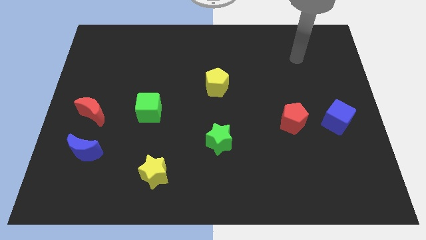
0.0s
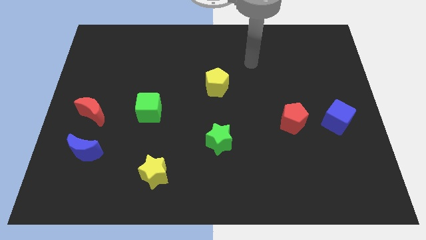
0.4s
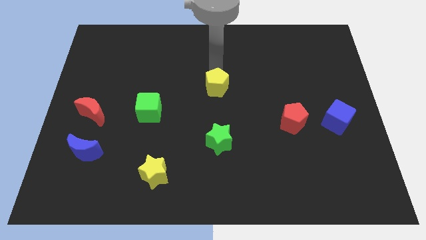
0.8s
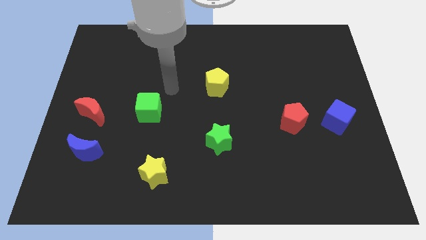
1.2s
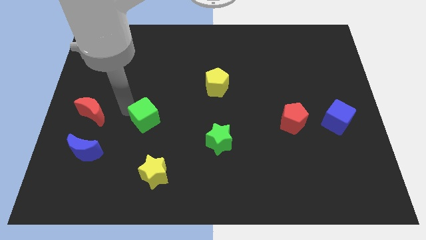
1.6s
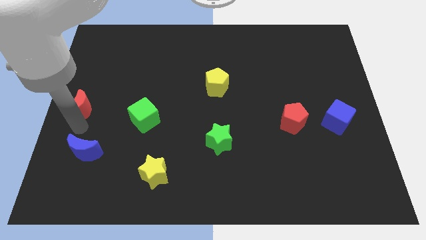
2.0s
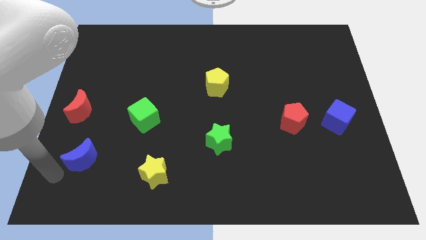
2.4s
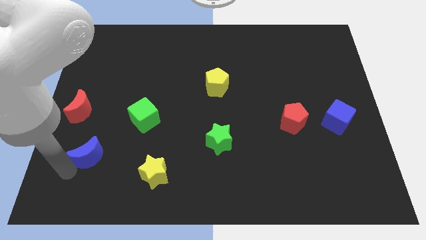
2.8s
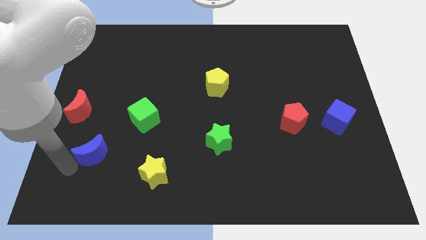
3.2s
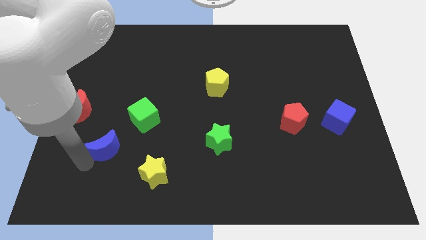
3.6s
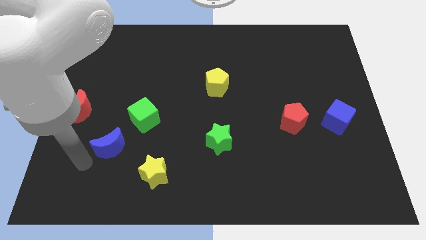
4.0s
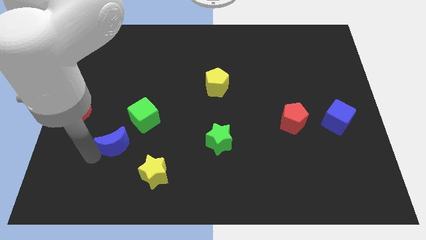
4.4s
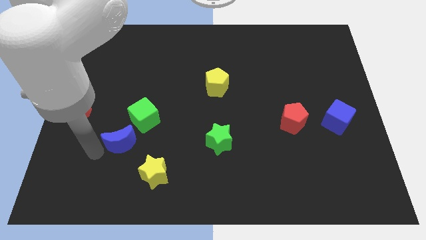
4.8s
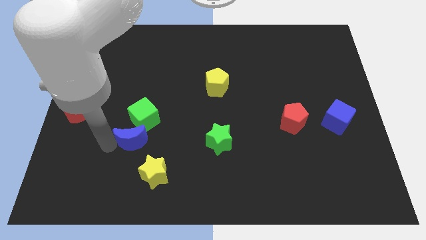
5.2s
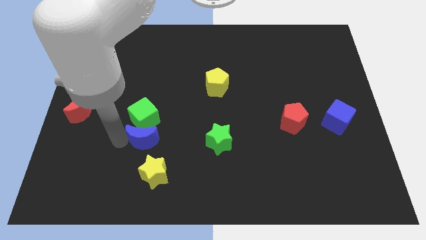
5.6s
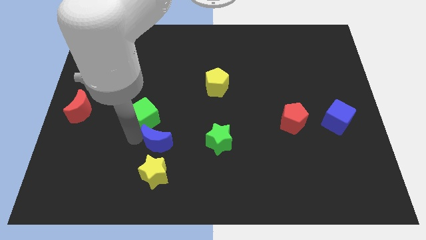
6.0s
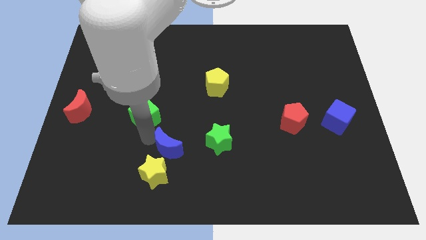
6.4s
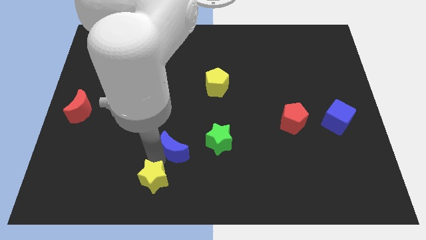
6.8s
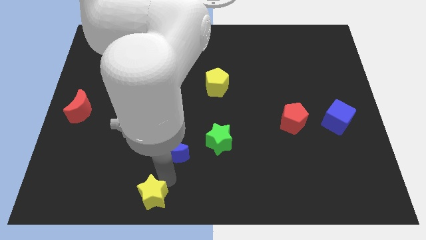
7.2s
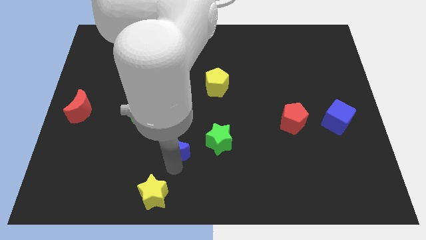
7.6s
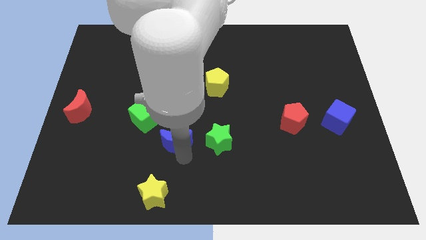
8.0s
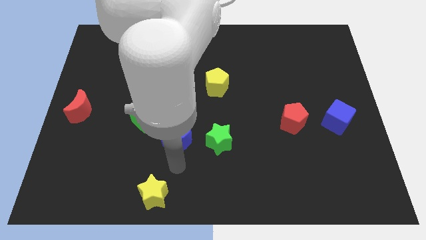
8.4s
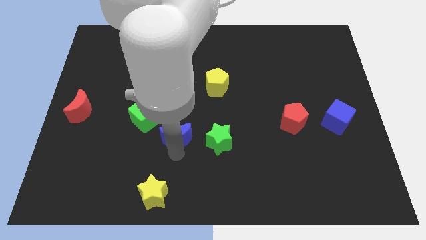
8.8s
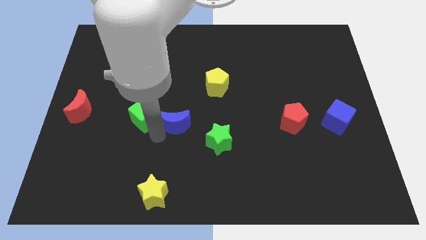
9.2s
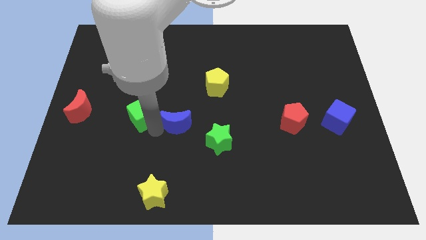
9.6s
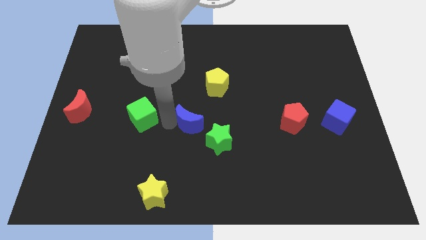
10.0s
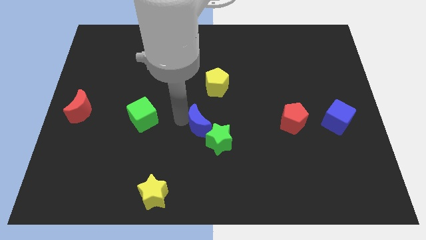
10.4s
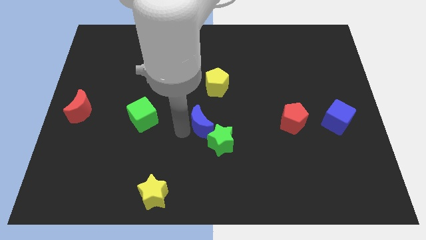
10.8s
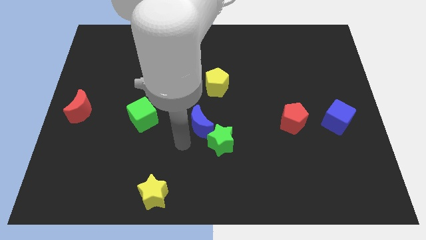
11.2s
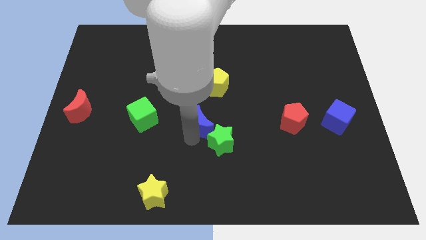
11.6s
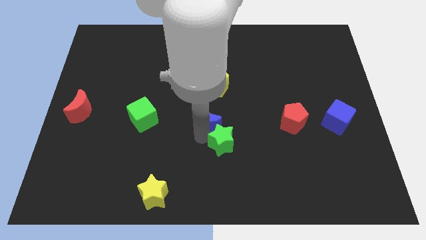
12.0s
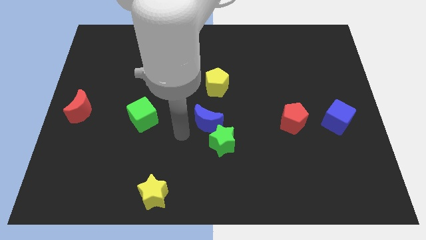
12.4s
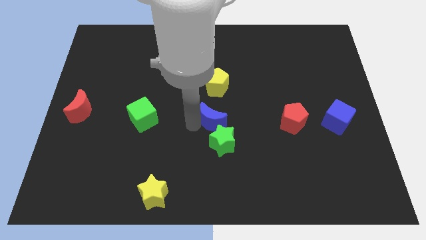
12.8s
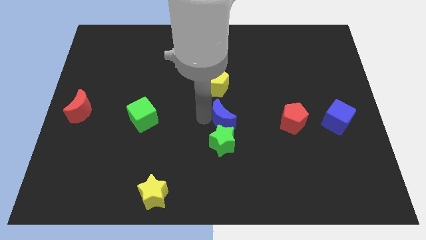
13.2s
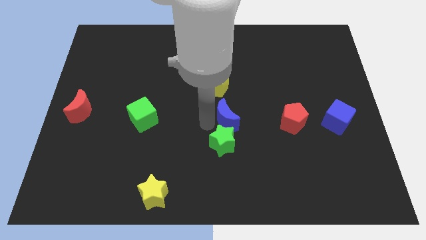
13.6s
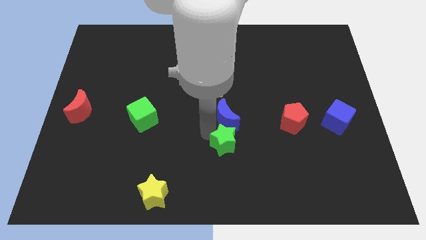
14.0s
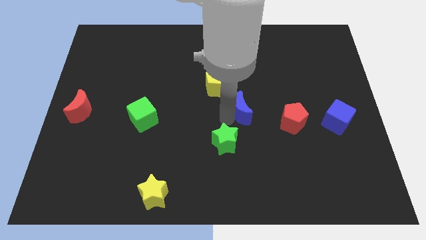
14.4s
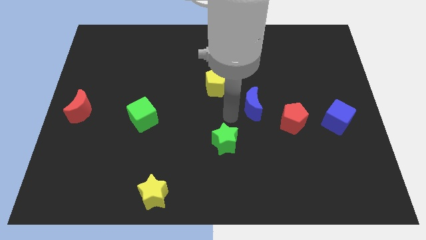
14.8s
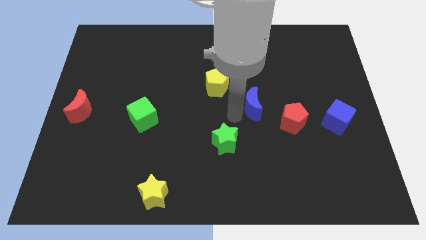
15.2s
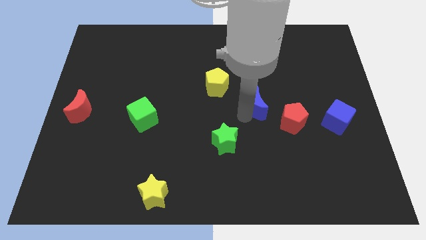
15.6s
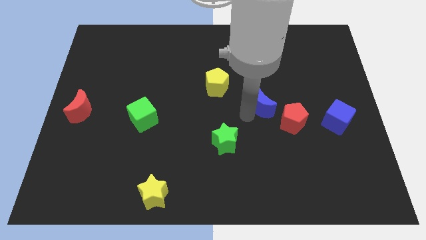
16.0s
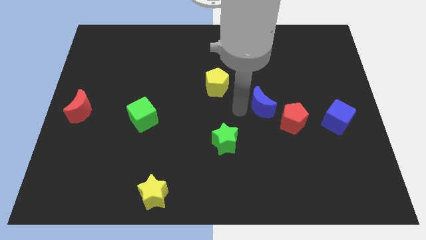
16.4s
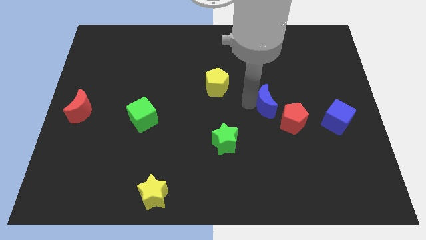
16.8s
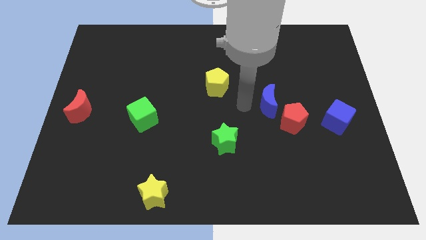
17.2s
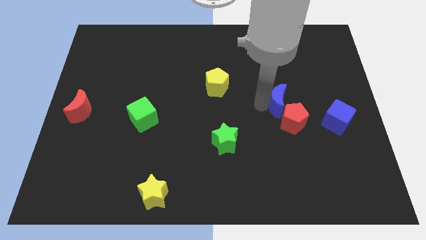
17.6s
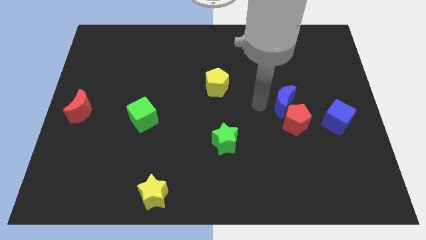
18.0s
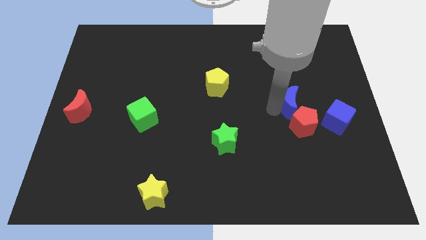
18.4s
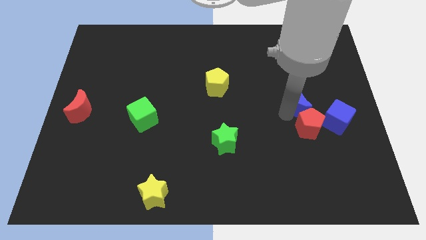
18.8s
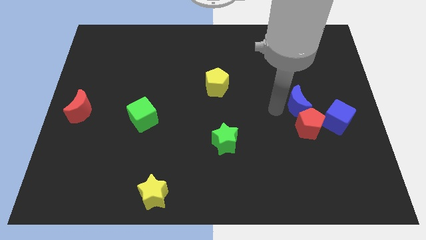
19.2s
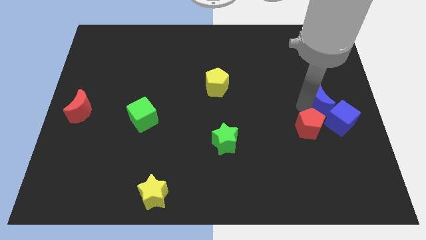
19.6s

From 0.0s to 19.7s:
slide the blue moon to the center right

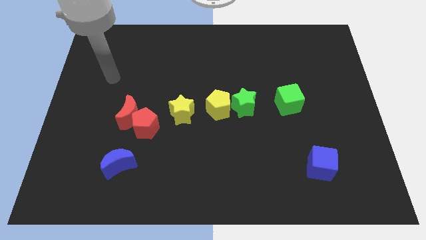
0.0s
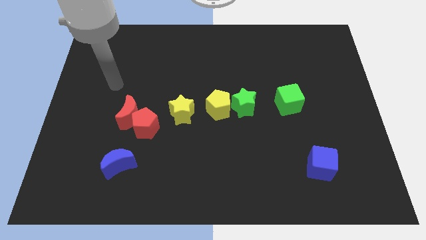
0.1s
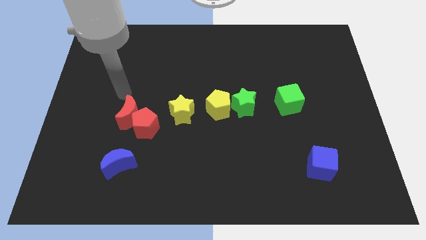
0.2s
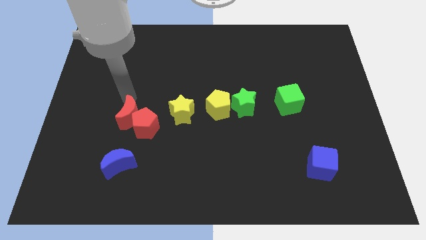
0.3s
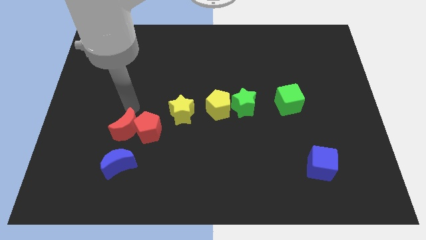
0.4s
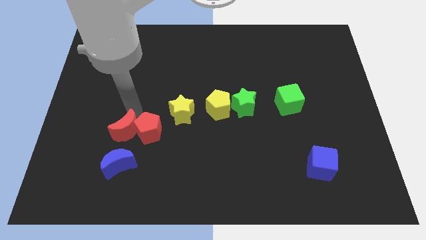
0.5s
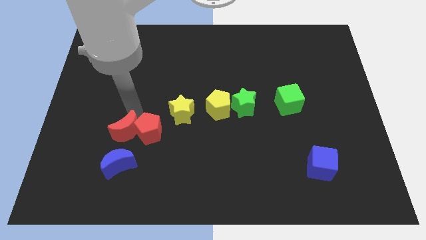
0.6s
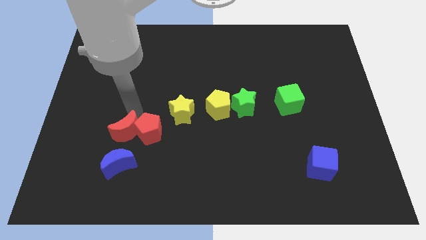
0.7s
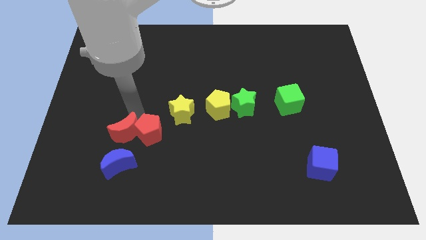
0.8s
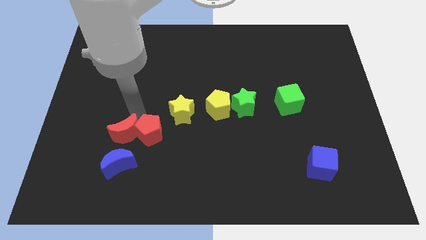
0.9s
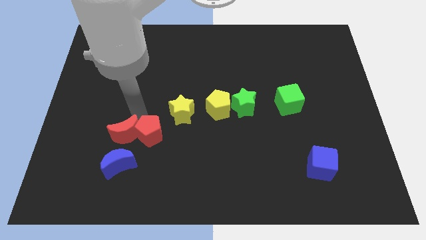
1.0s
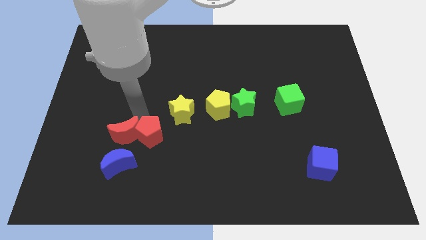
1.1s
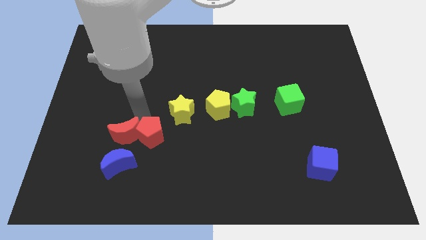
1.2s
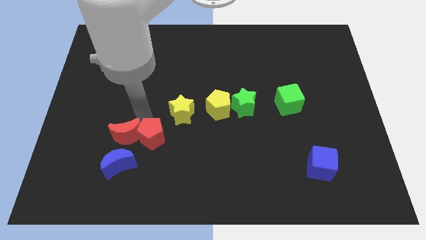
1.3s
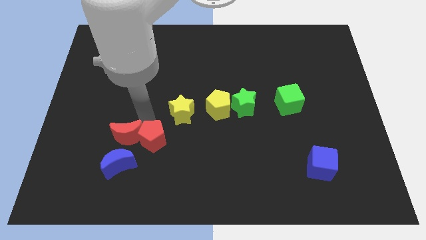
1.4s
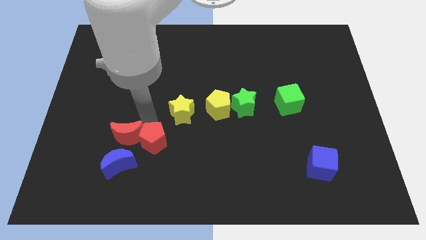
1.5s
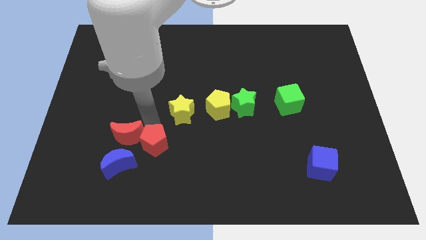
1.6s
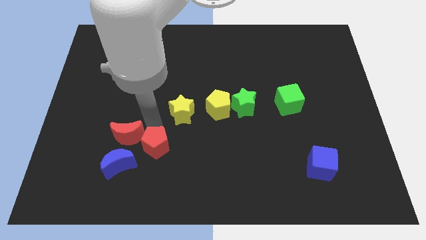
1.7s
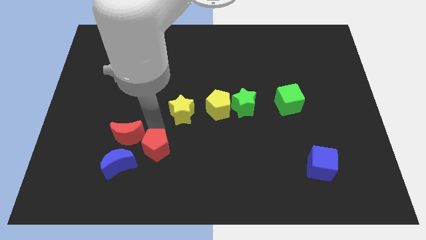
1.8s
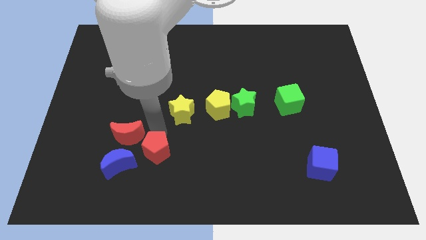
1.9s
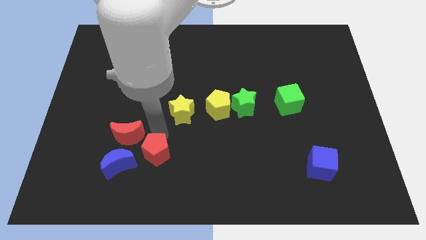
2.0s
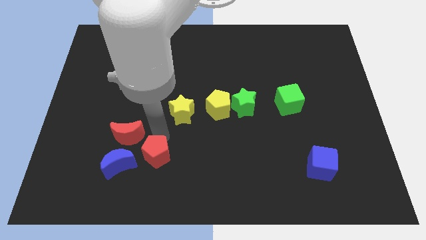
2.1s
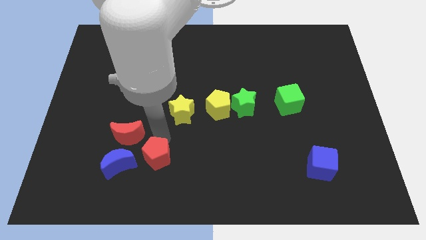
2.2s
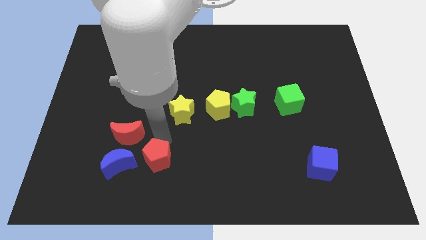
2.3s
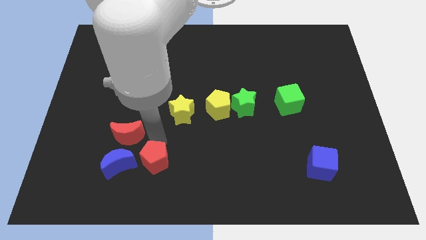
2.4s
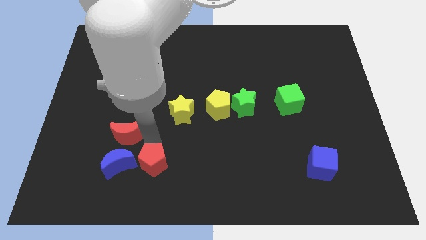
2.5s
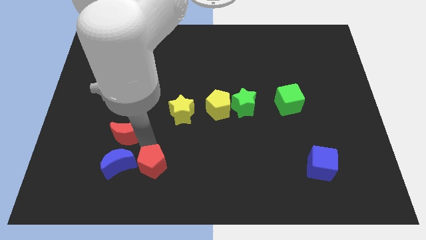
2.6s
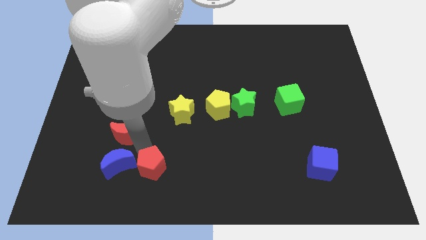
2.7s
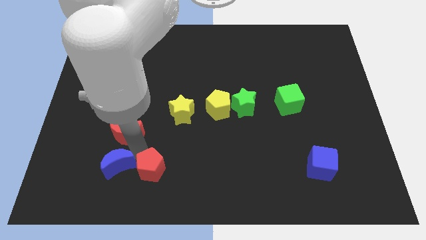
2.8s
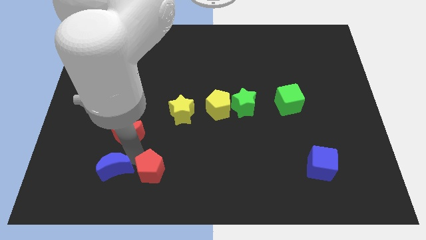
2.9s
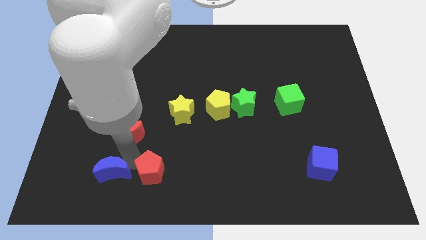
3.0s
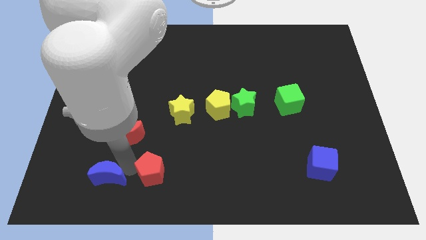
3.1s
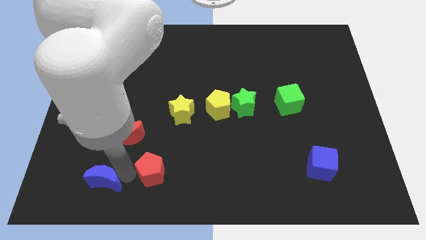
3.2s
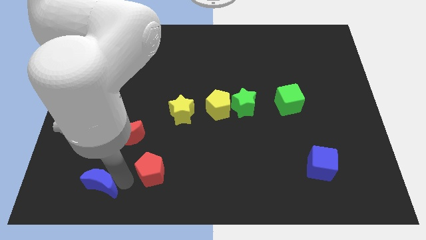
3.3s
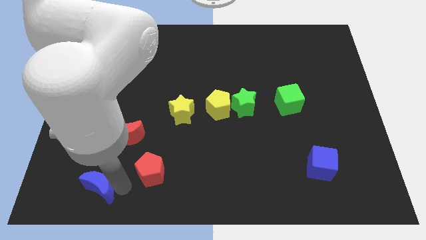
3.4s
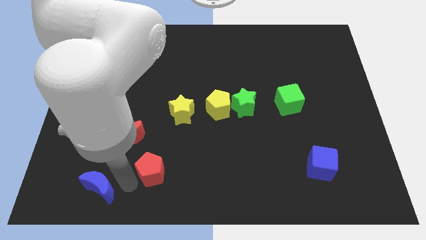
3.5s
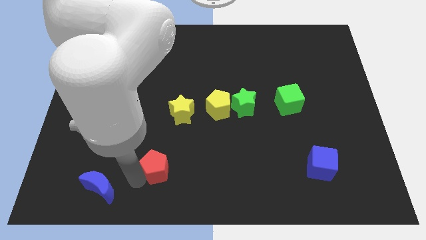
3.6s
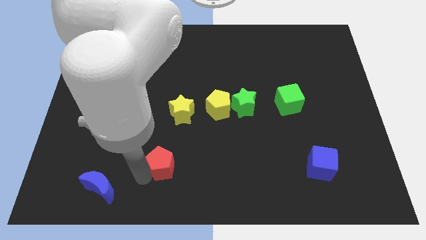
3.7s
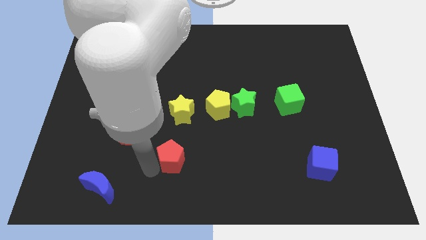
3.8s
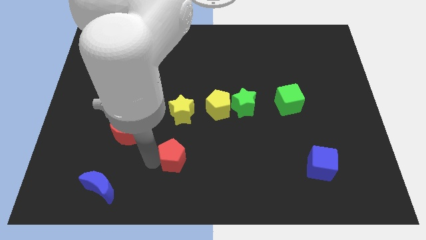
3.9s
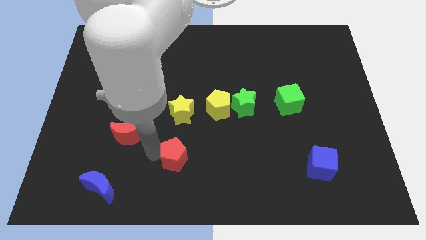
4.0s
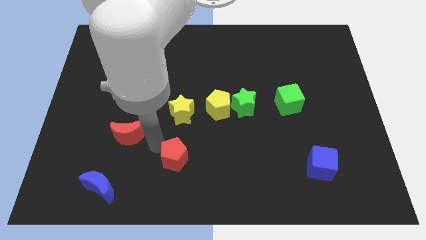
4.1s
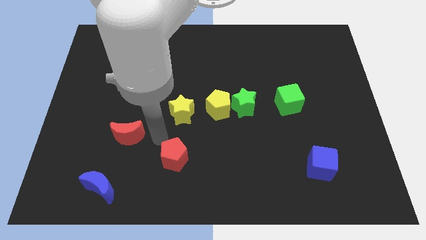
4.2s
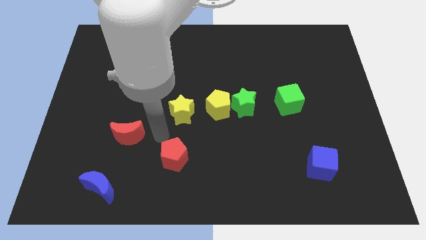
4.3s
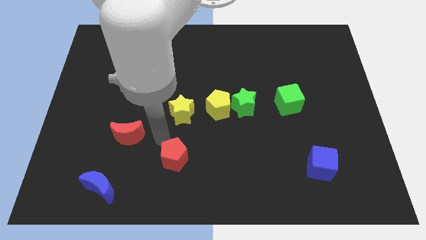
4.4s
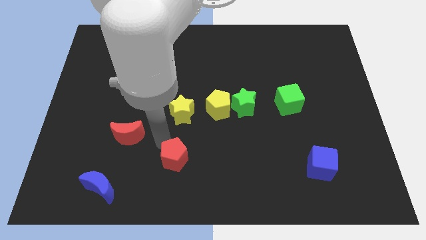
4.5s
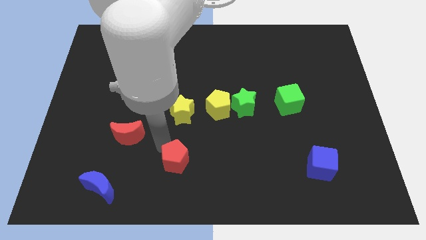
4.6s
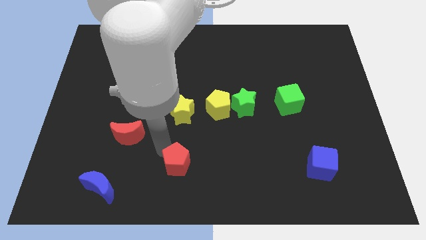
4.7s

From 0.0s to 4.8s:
slide the red pentagon to the bottom side
